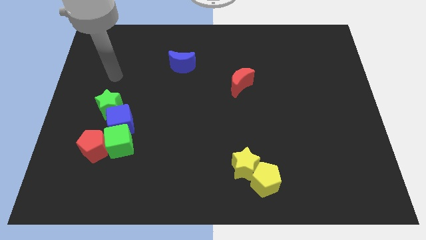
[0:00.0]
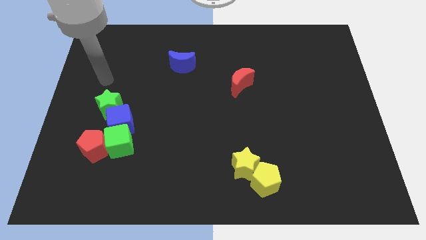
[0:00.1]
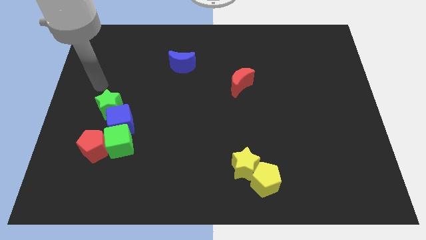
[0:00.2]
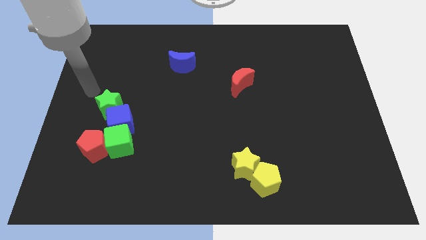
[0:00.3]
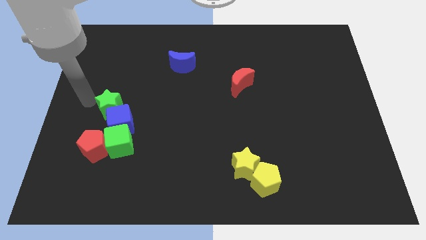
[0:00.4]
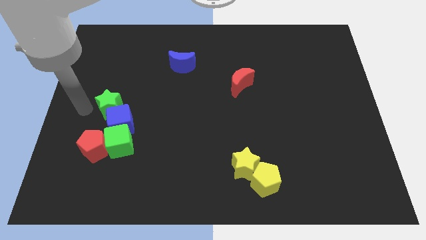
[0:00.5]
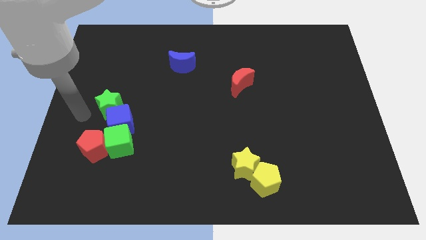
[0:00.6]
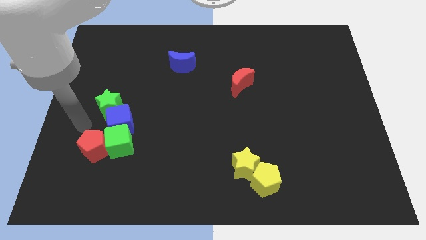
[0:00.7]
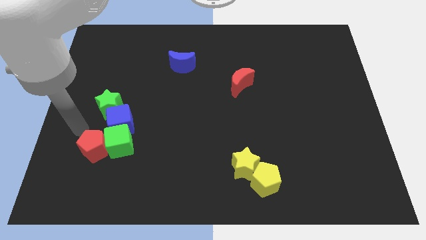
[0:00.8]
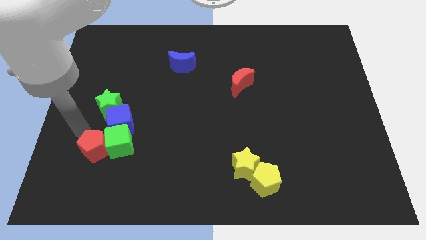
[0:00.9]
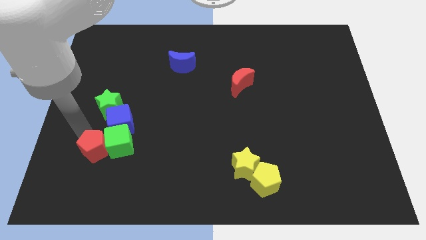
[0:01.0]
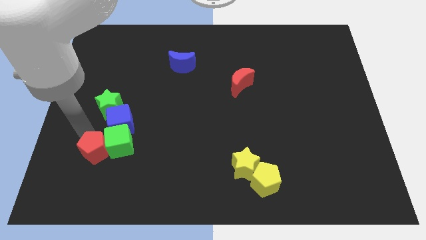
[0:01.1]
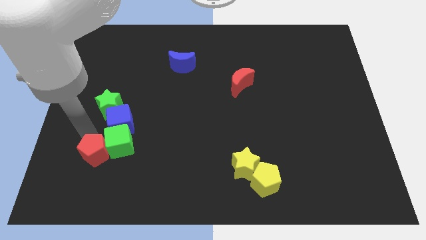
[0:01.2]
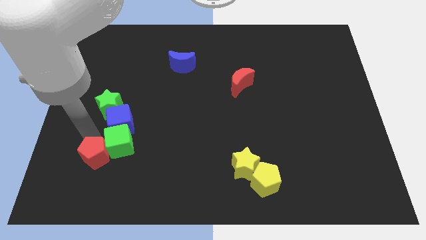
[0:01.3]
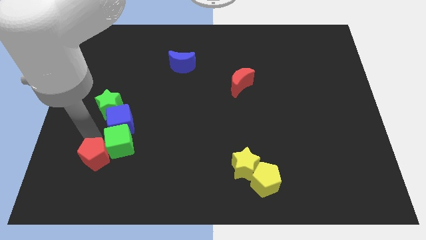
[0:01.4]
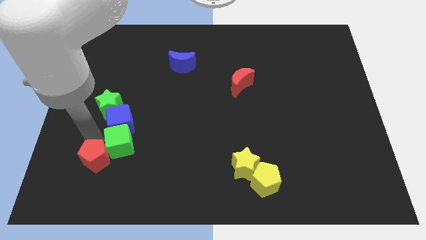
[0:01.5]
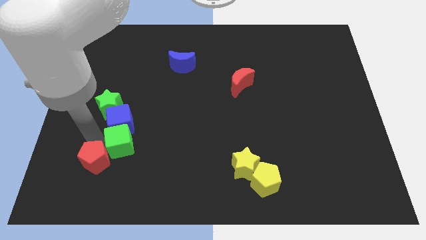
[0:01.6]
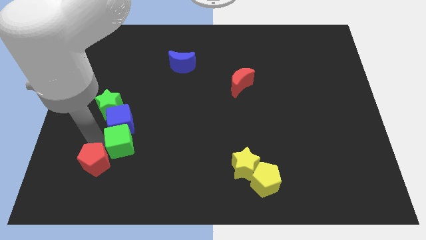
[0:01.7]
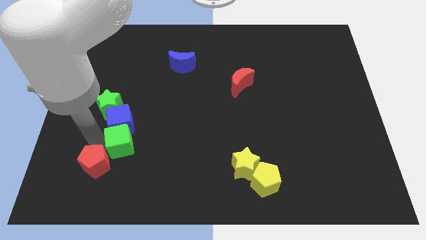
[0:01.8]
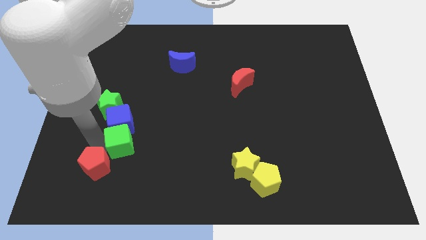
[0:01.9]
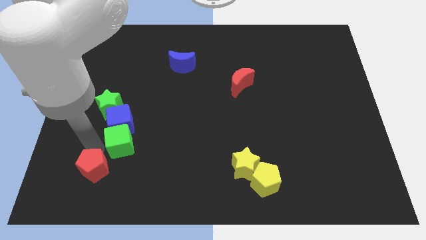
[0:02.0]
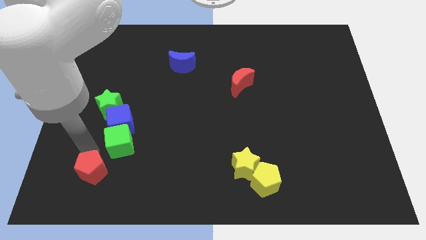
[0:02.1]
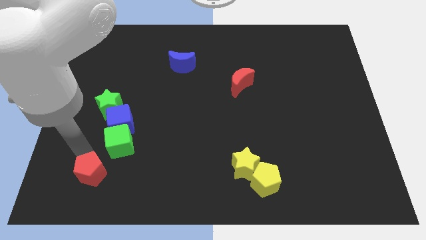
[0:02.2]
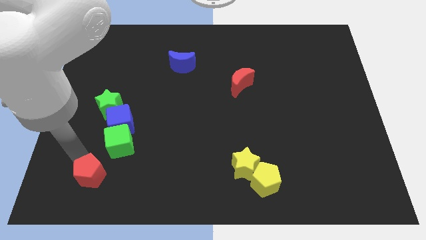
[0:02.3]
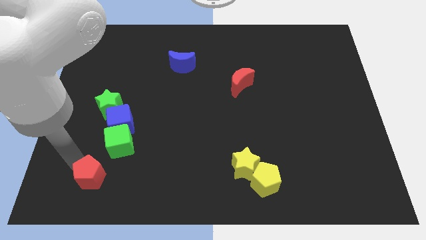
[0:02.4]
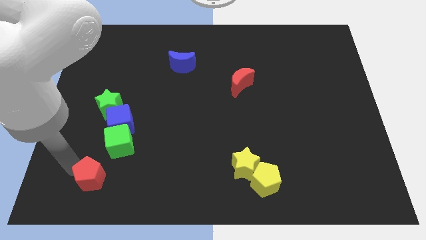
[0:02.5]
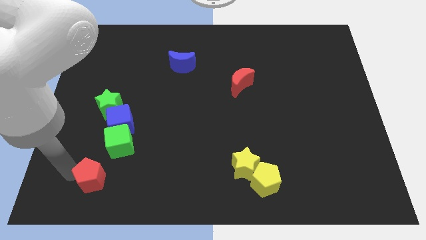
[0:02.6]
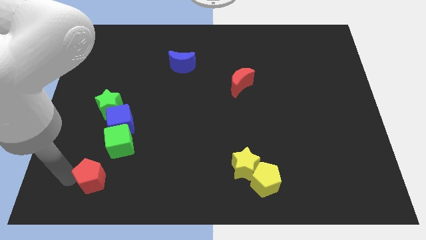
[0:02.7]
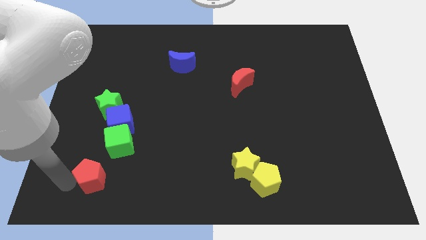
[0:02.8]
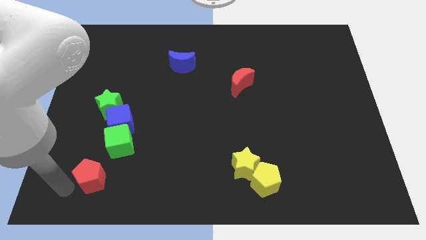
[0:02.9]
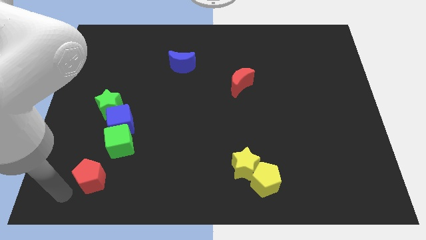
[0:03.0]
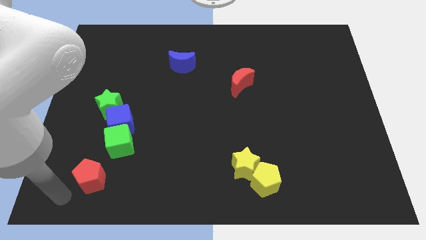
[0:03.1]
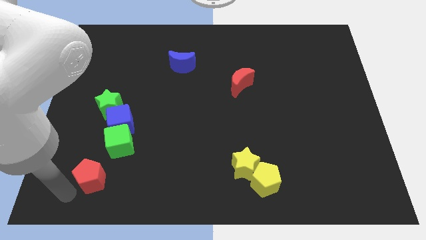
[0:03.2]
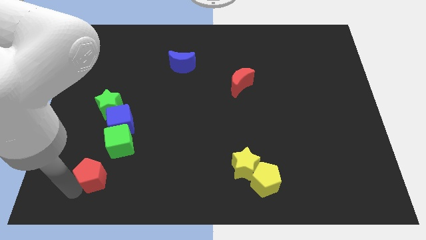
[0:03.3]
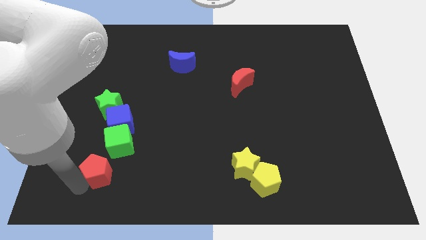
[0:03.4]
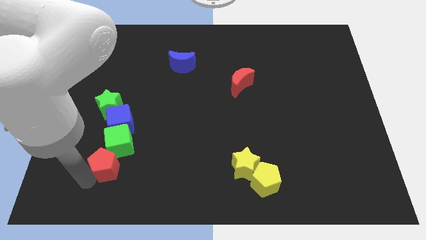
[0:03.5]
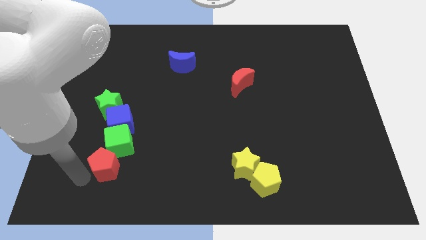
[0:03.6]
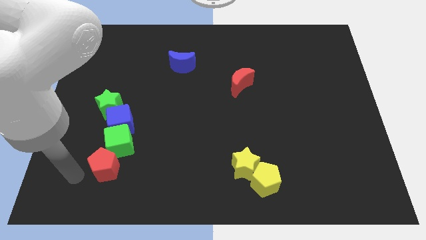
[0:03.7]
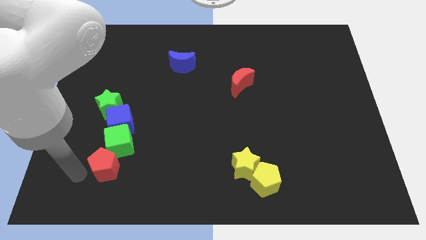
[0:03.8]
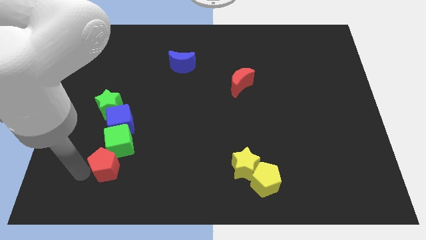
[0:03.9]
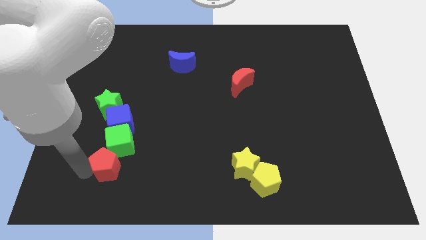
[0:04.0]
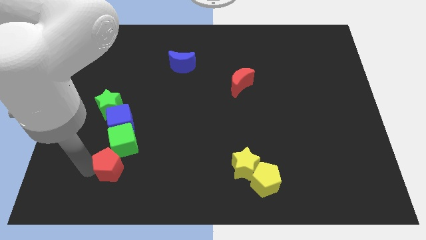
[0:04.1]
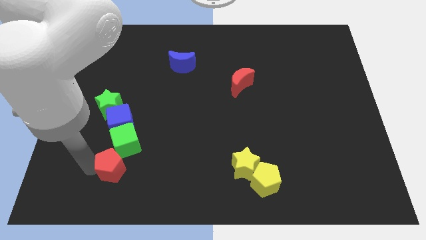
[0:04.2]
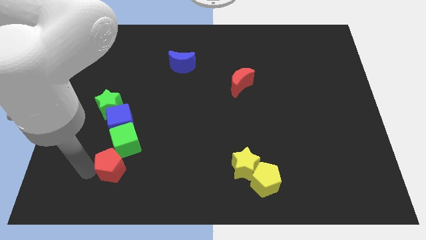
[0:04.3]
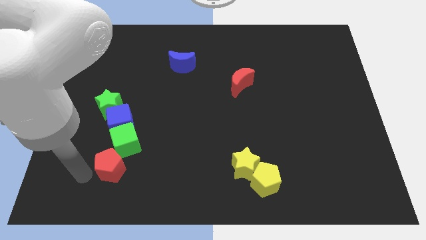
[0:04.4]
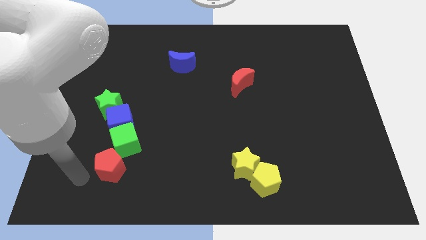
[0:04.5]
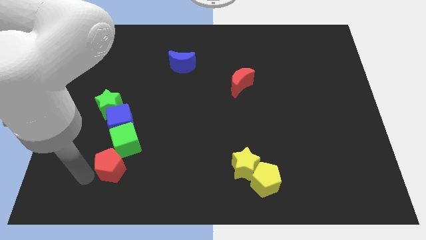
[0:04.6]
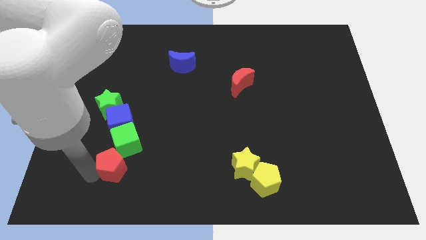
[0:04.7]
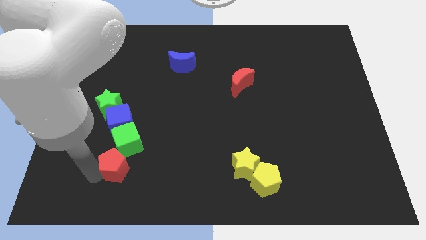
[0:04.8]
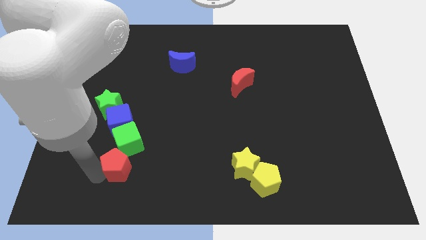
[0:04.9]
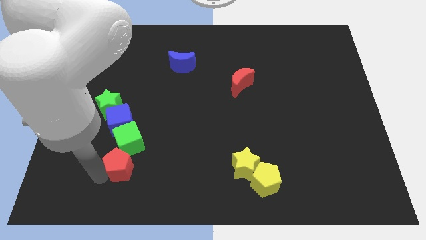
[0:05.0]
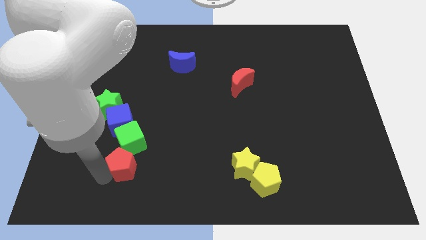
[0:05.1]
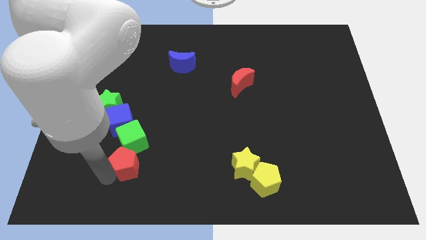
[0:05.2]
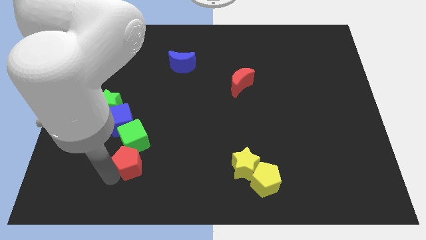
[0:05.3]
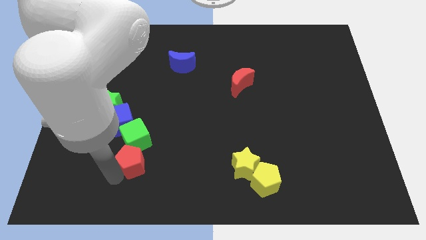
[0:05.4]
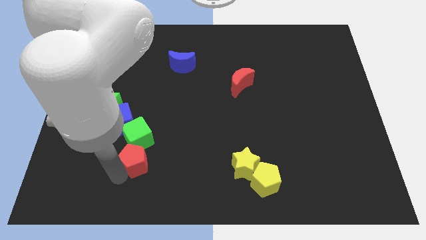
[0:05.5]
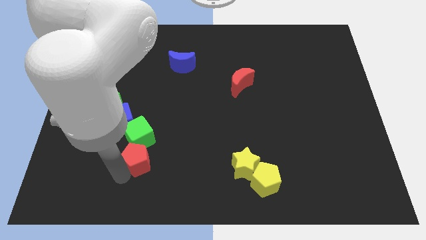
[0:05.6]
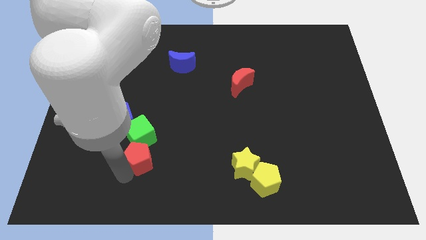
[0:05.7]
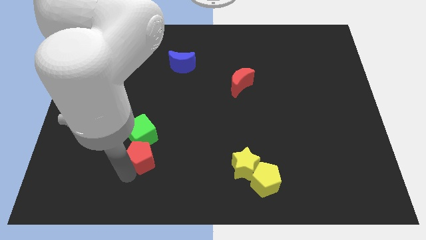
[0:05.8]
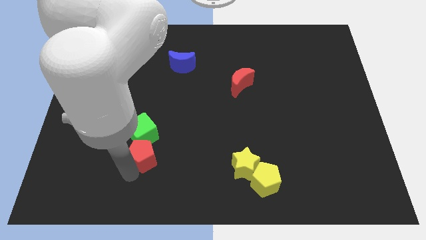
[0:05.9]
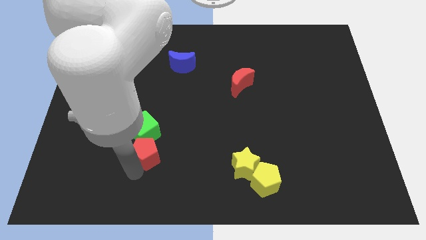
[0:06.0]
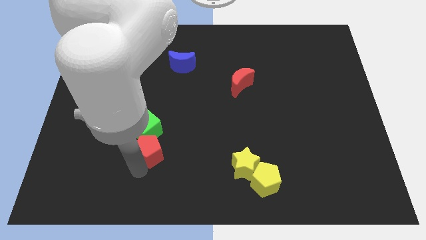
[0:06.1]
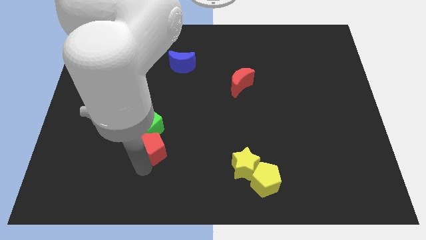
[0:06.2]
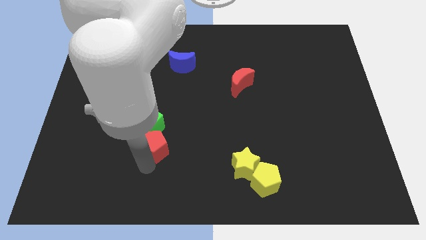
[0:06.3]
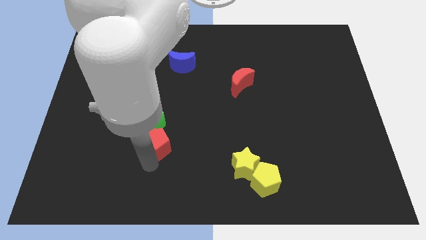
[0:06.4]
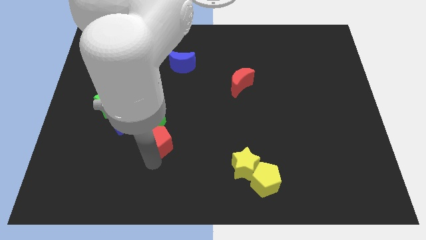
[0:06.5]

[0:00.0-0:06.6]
move the red pentagon somewhat upwards and to the right diagonally

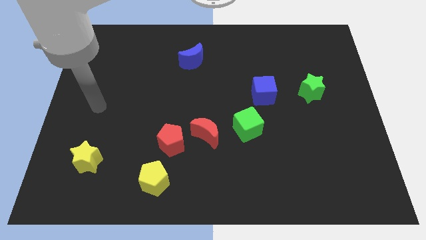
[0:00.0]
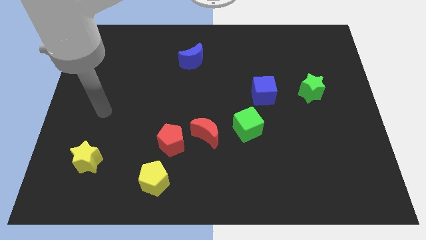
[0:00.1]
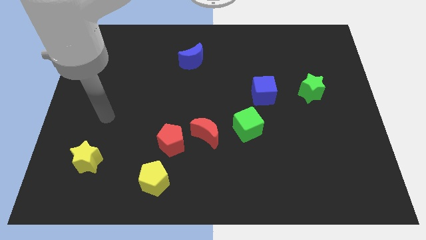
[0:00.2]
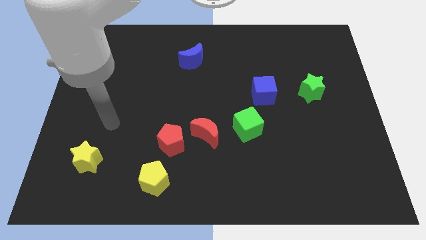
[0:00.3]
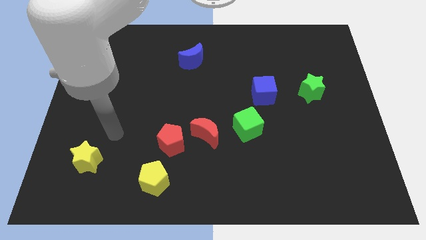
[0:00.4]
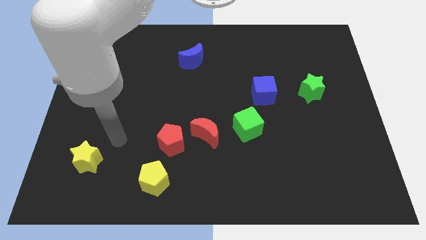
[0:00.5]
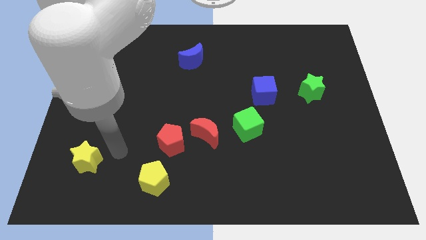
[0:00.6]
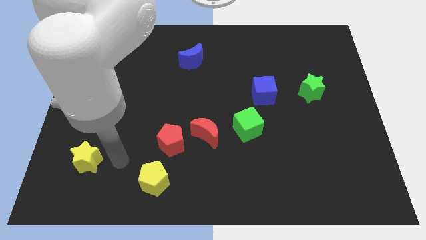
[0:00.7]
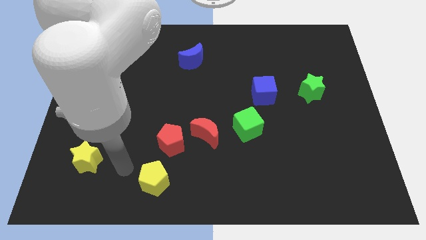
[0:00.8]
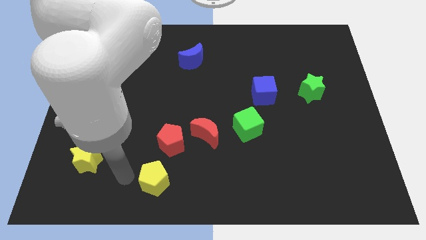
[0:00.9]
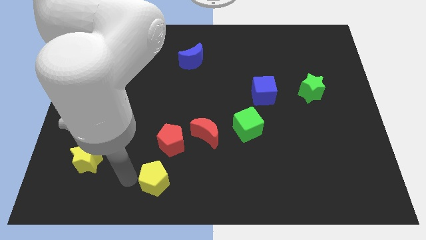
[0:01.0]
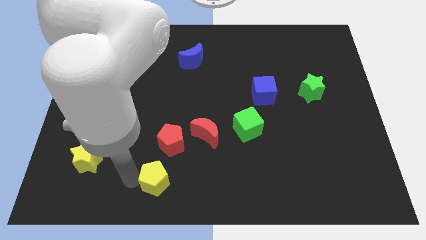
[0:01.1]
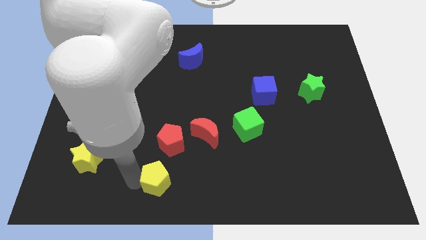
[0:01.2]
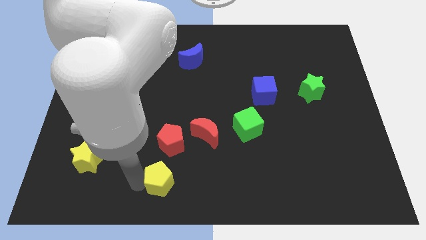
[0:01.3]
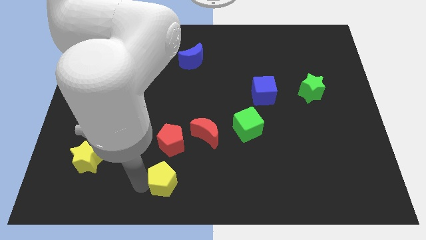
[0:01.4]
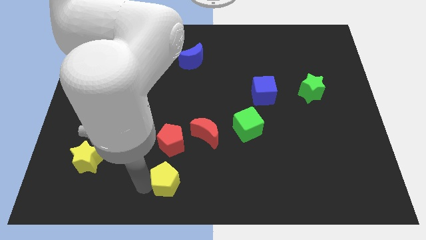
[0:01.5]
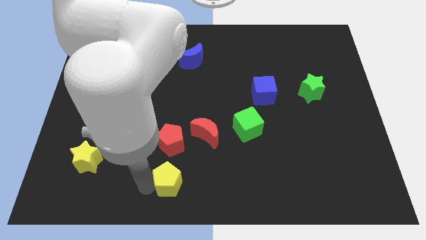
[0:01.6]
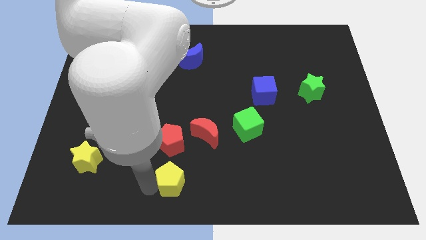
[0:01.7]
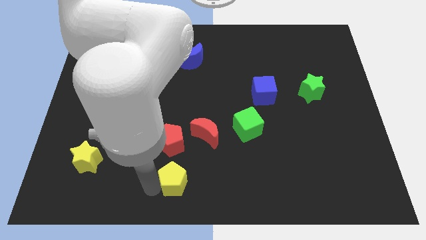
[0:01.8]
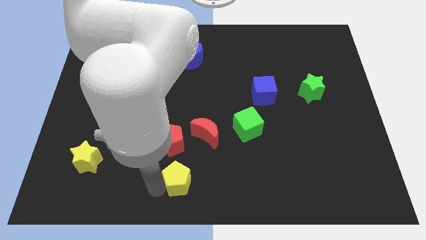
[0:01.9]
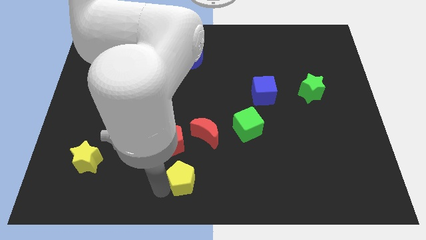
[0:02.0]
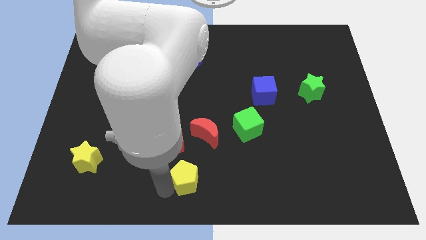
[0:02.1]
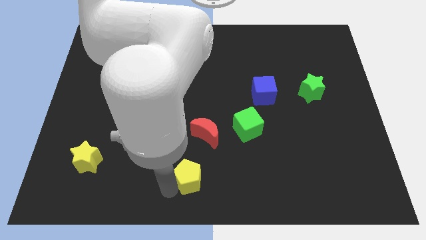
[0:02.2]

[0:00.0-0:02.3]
slightly slide the yellow pentagon right
